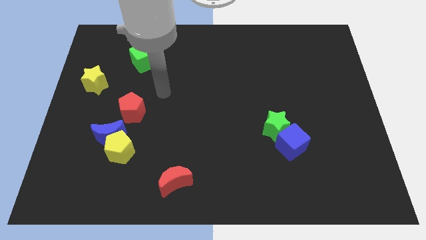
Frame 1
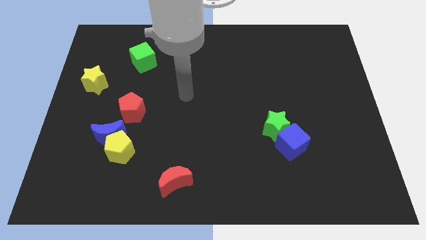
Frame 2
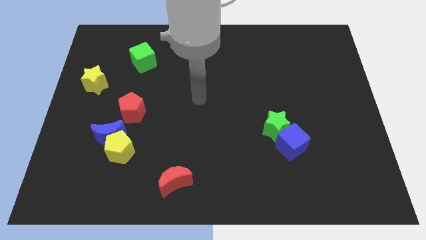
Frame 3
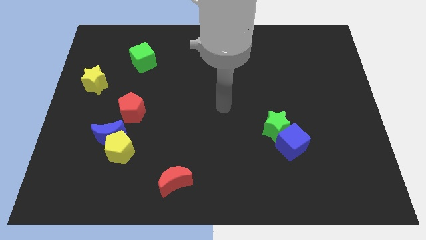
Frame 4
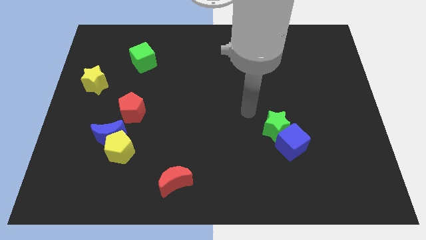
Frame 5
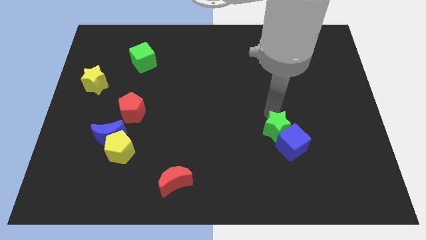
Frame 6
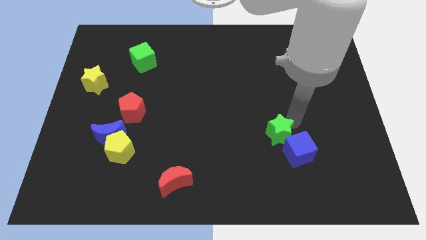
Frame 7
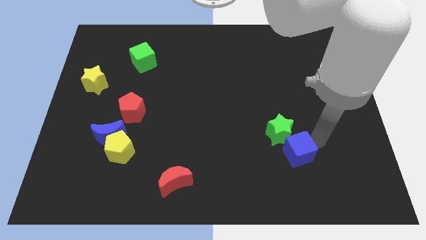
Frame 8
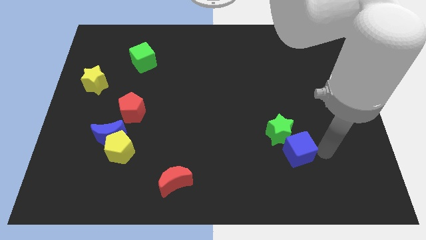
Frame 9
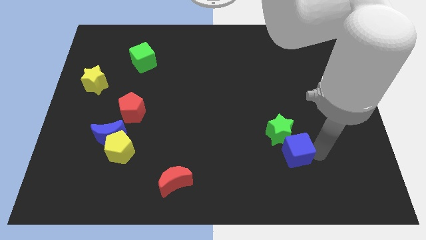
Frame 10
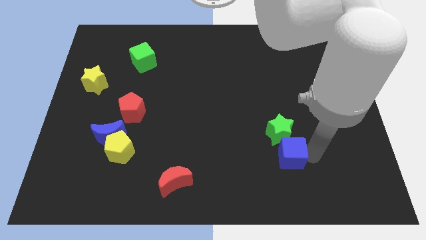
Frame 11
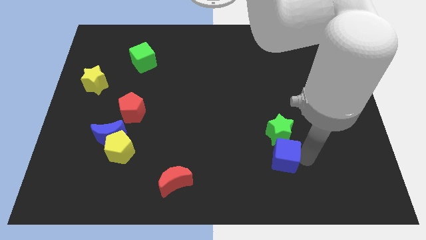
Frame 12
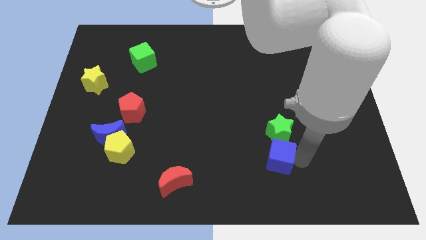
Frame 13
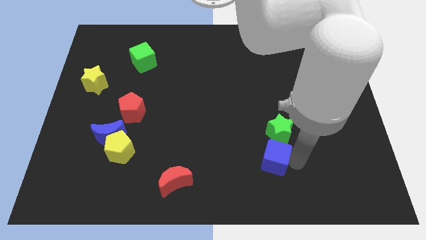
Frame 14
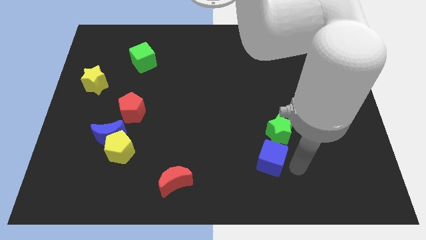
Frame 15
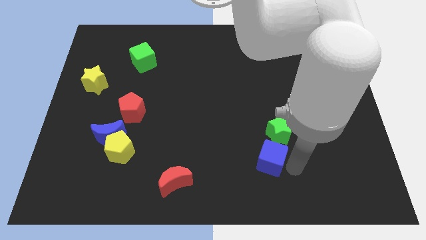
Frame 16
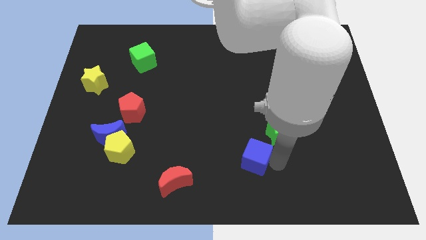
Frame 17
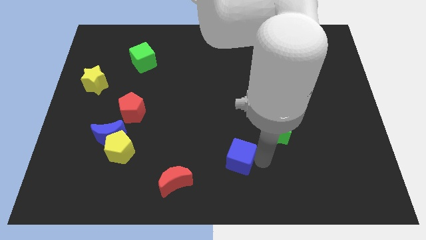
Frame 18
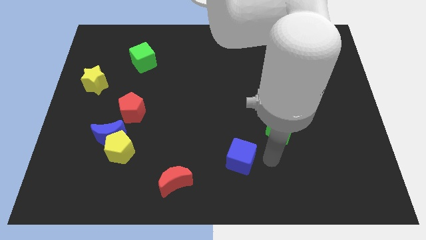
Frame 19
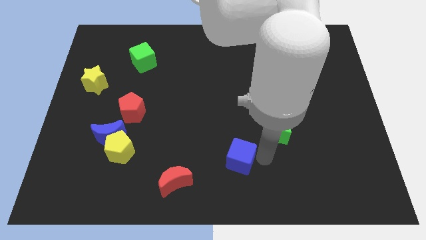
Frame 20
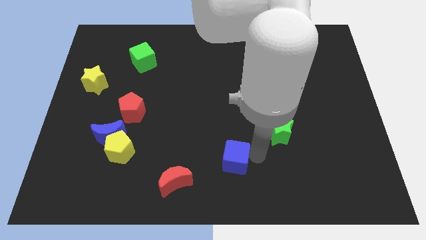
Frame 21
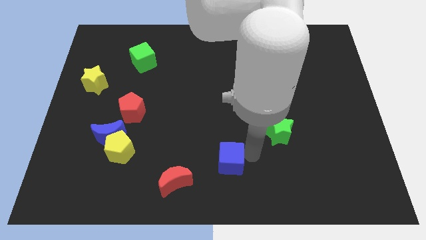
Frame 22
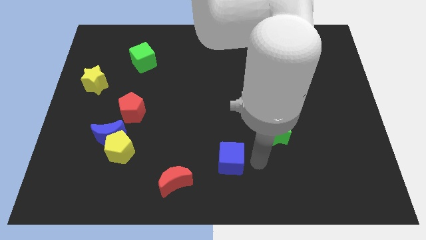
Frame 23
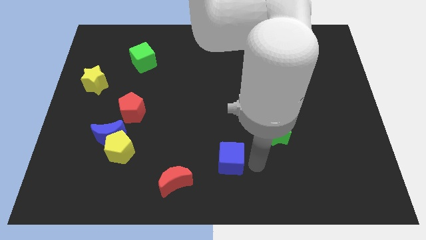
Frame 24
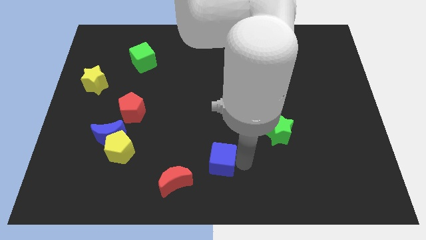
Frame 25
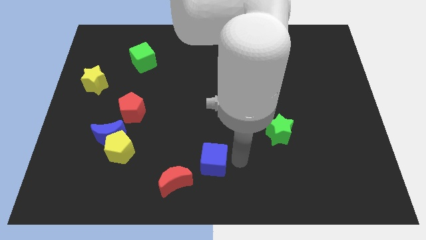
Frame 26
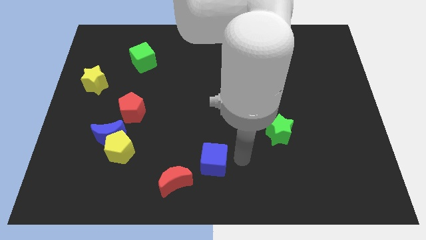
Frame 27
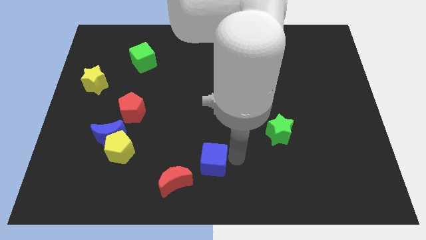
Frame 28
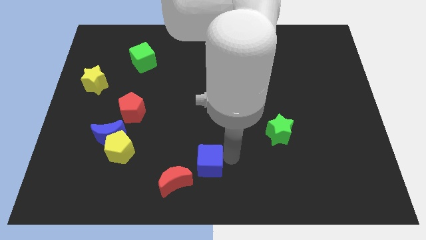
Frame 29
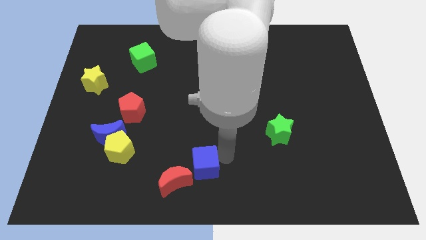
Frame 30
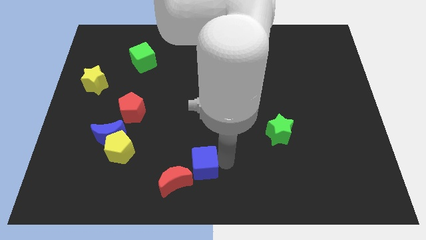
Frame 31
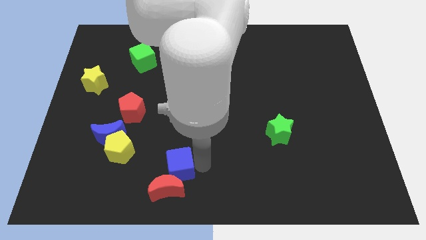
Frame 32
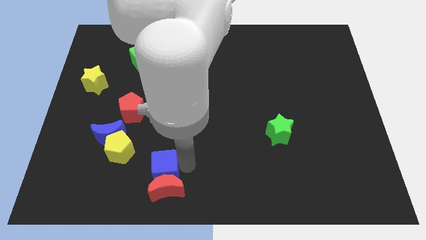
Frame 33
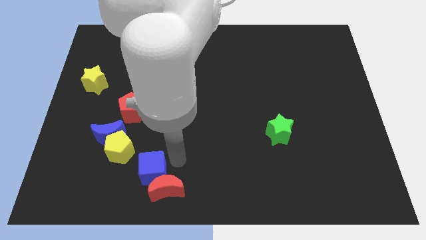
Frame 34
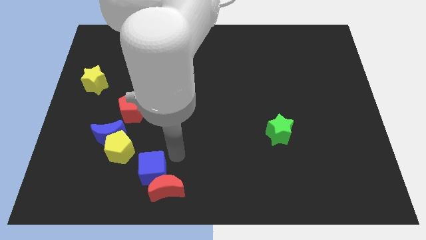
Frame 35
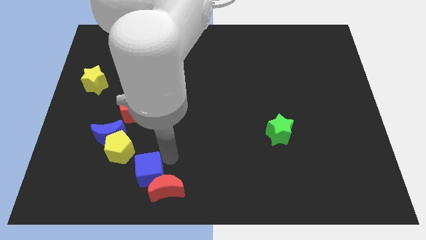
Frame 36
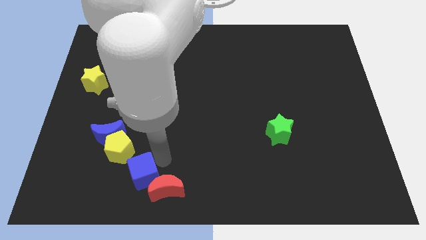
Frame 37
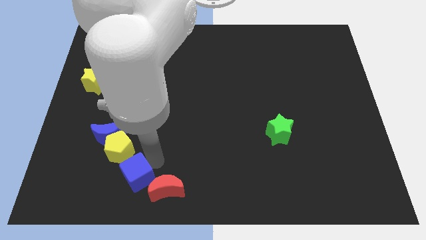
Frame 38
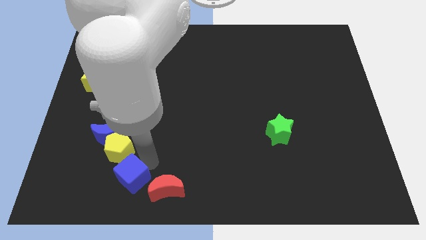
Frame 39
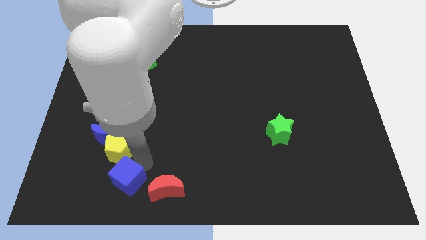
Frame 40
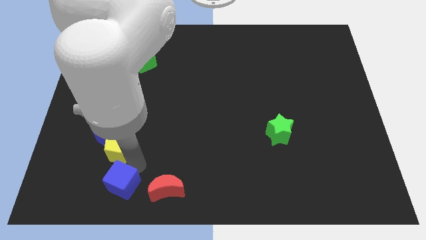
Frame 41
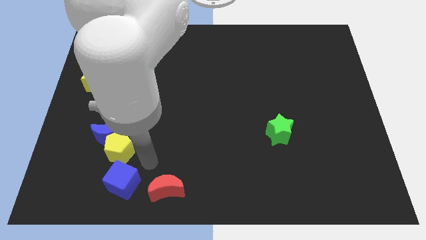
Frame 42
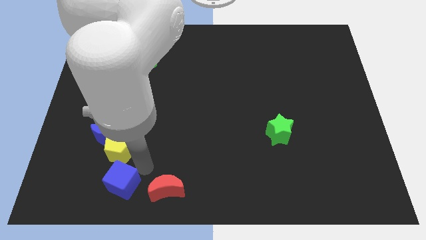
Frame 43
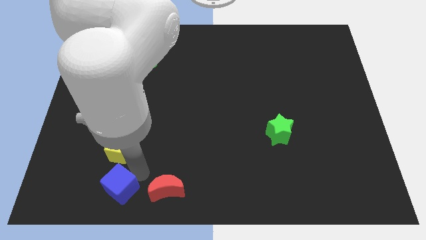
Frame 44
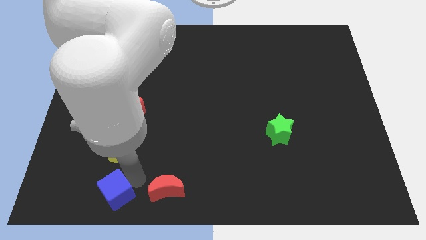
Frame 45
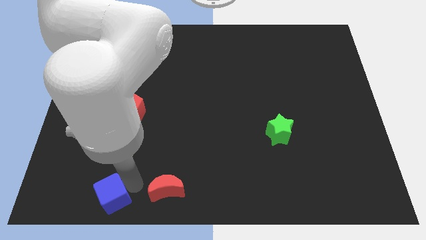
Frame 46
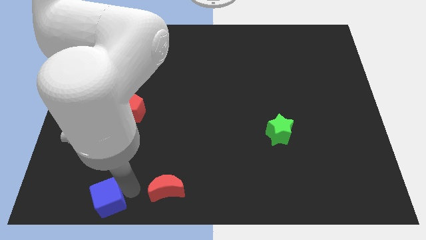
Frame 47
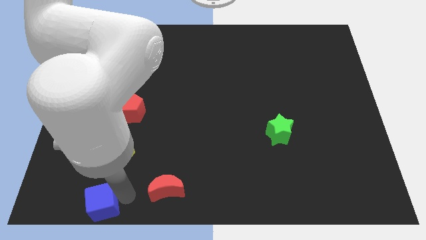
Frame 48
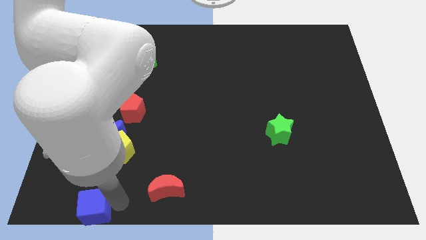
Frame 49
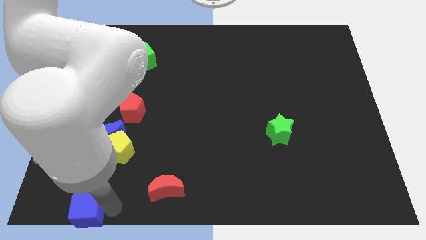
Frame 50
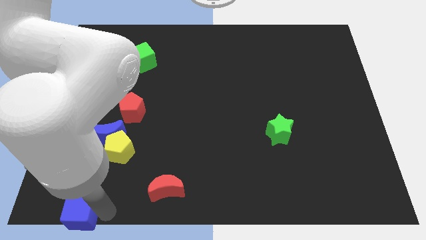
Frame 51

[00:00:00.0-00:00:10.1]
put the blue cube to the bottom left corner

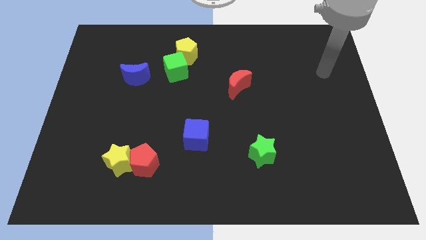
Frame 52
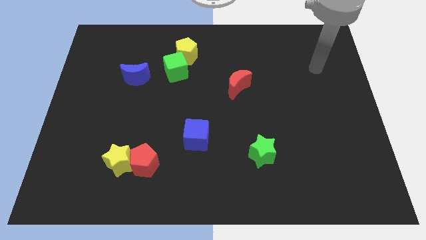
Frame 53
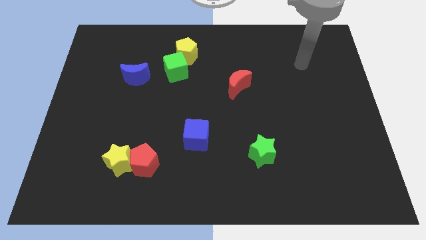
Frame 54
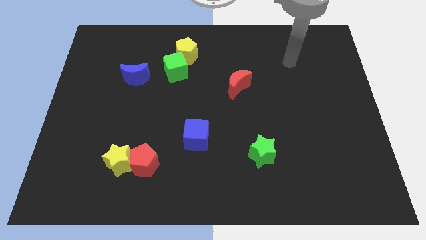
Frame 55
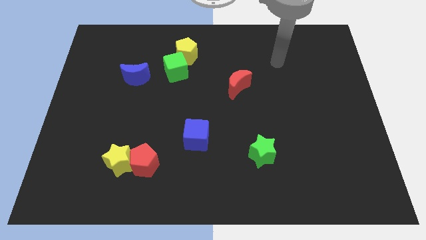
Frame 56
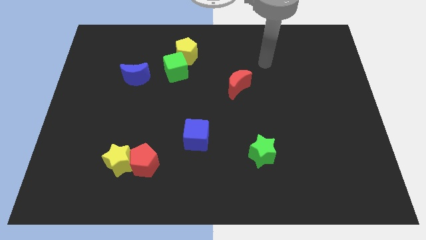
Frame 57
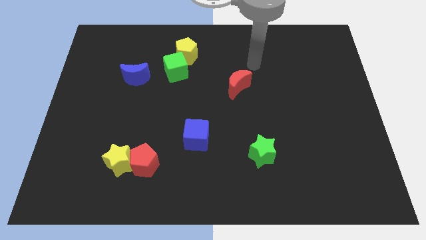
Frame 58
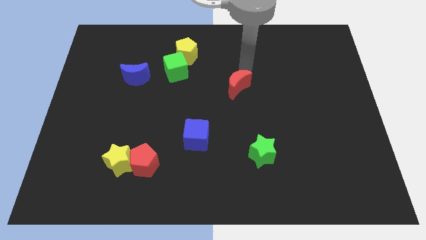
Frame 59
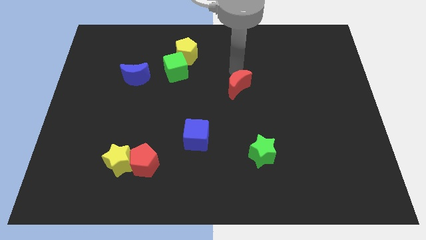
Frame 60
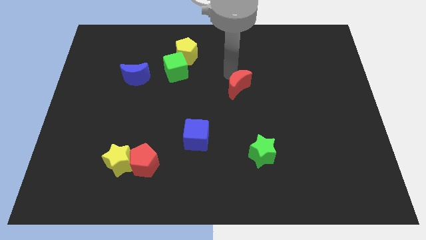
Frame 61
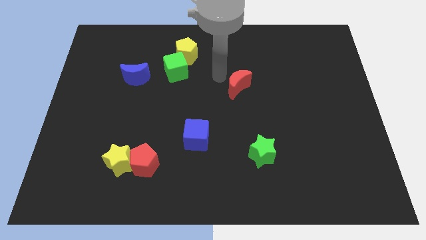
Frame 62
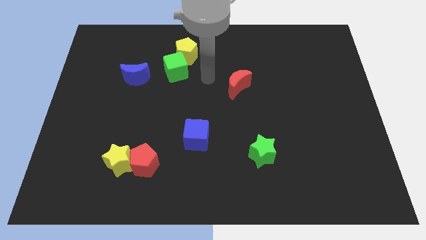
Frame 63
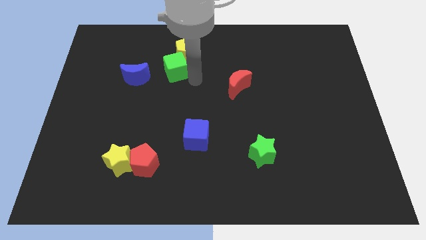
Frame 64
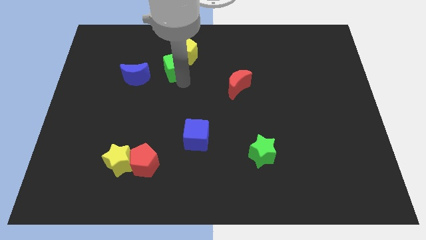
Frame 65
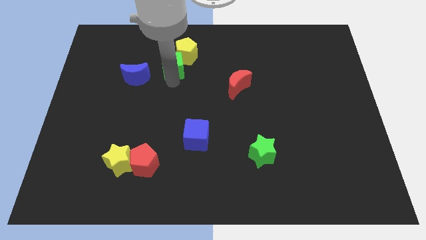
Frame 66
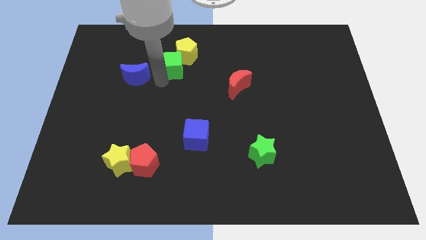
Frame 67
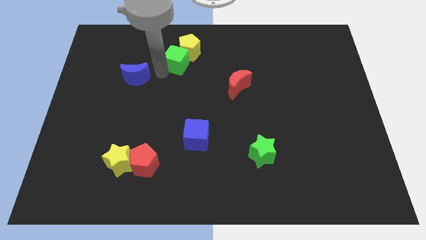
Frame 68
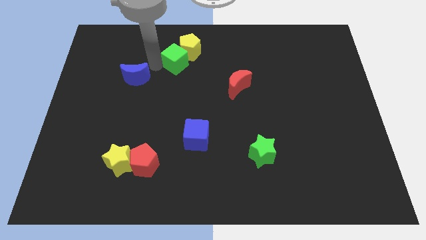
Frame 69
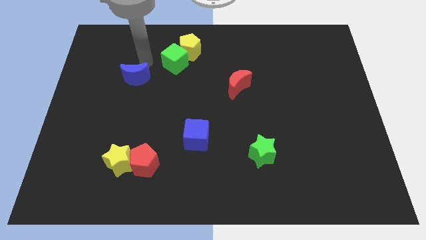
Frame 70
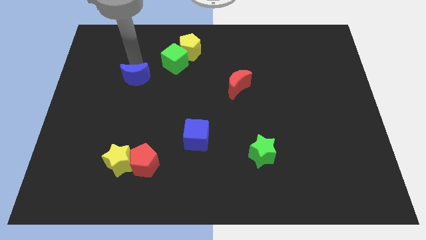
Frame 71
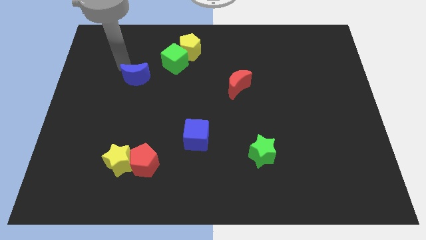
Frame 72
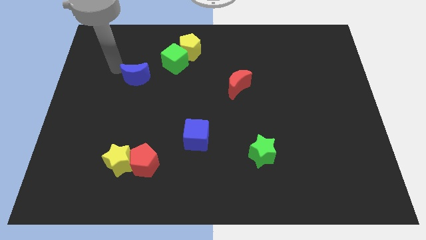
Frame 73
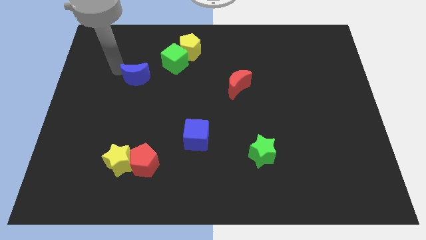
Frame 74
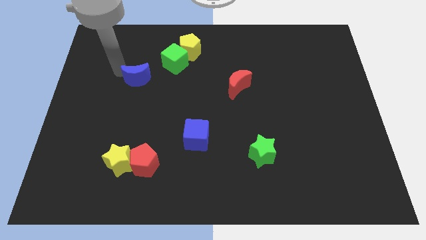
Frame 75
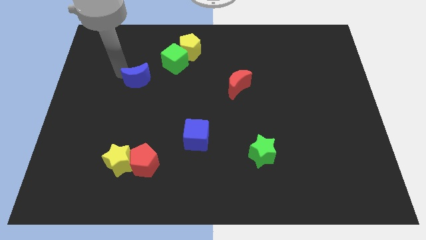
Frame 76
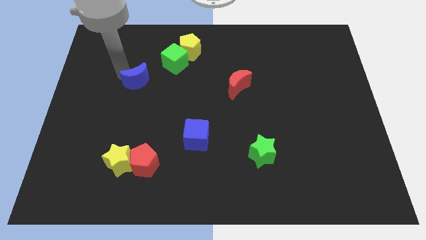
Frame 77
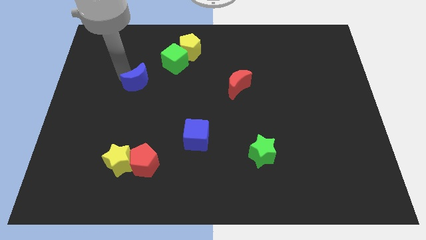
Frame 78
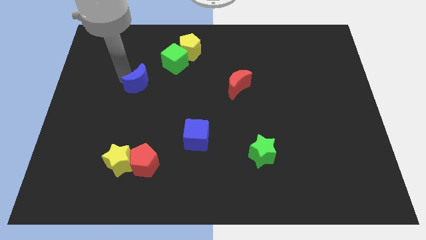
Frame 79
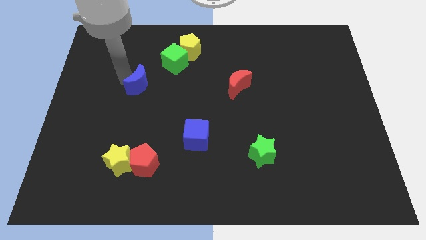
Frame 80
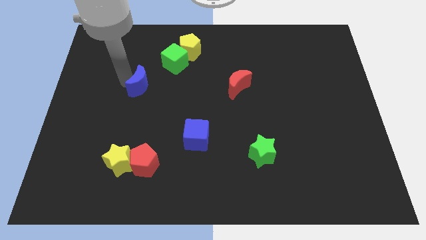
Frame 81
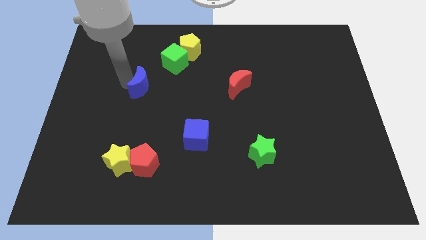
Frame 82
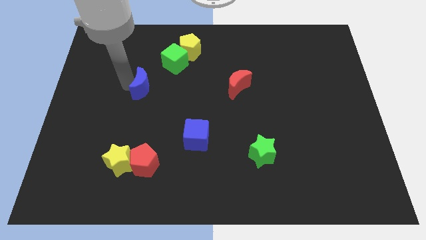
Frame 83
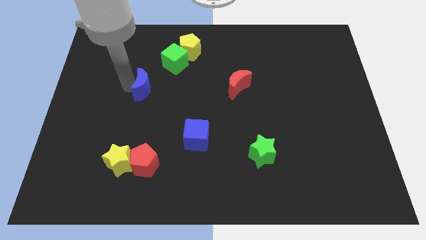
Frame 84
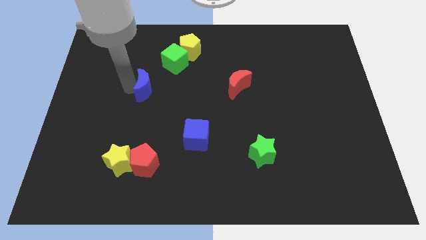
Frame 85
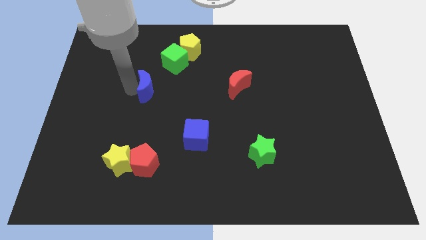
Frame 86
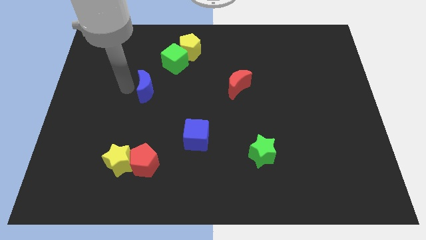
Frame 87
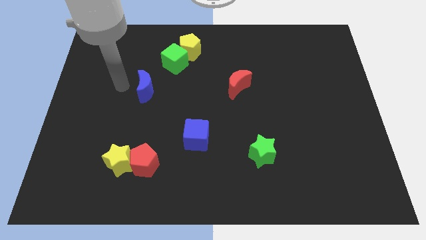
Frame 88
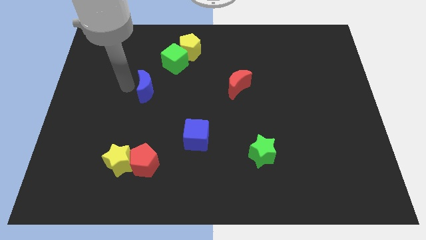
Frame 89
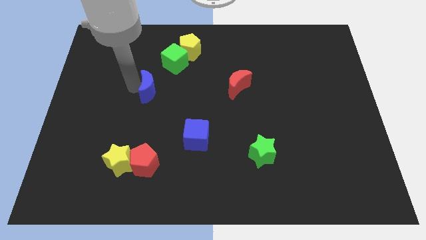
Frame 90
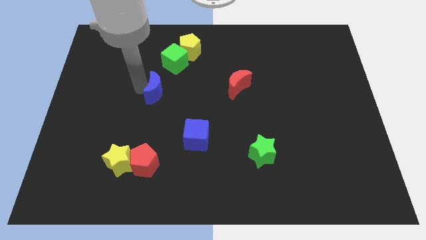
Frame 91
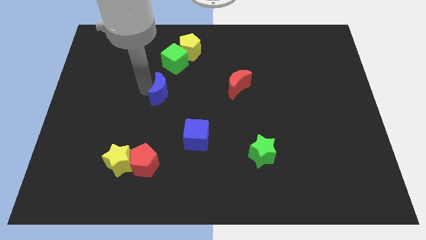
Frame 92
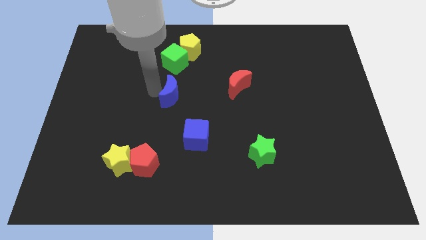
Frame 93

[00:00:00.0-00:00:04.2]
push the blue moon to the middle
